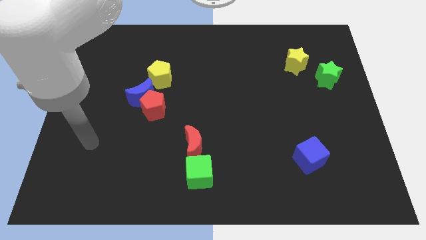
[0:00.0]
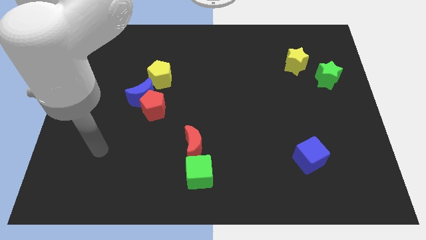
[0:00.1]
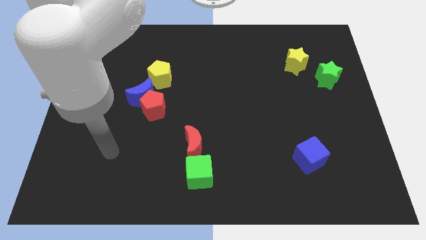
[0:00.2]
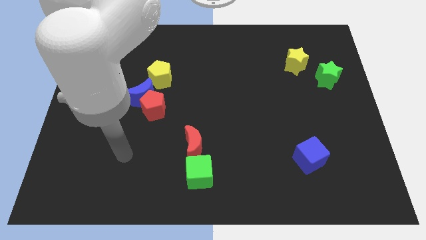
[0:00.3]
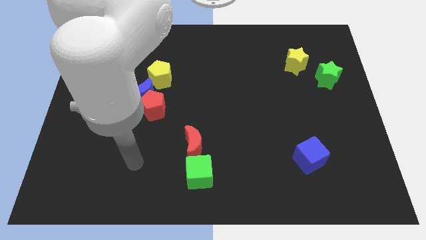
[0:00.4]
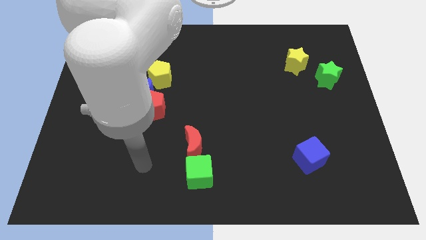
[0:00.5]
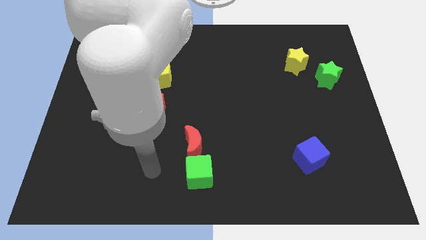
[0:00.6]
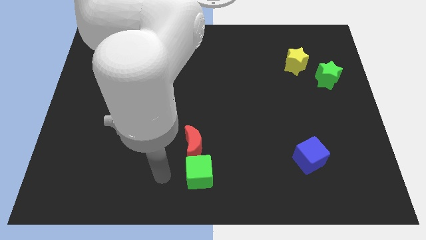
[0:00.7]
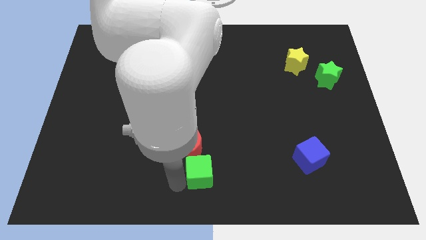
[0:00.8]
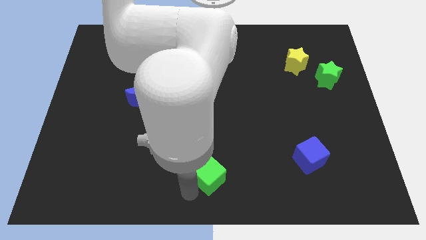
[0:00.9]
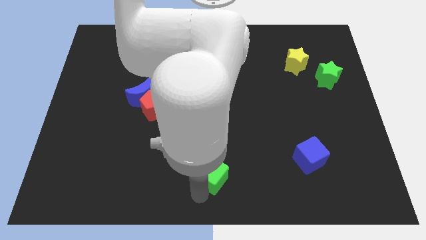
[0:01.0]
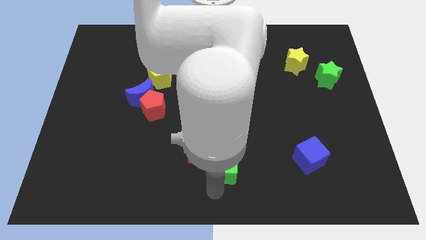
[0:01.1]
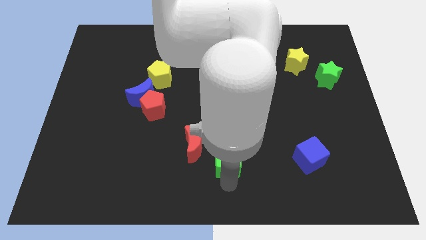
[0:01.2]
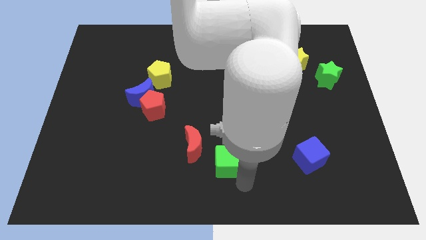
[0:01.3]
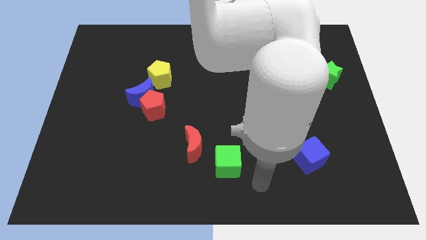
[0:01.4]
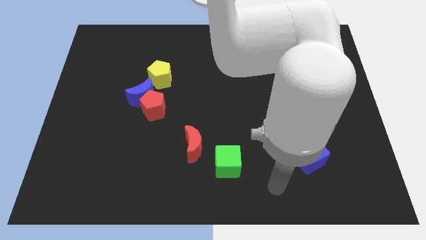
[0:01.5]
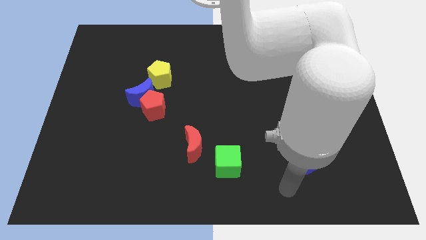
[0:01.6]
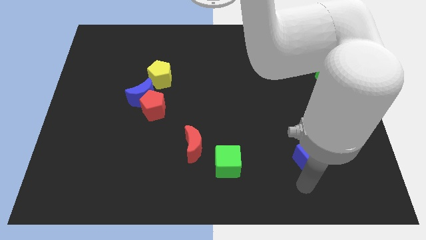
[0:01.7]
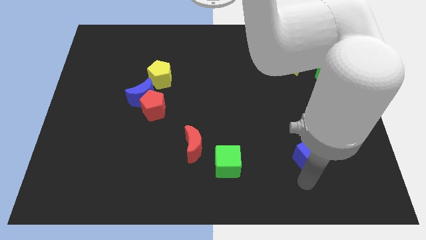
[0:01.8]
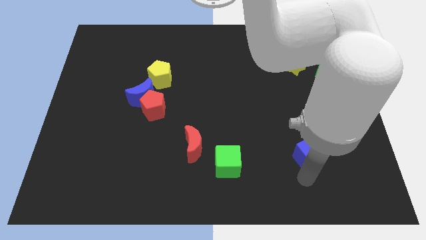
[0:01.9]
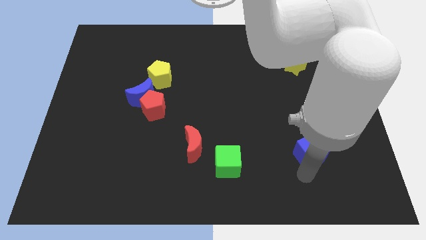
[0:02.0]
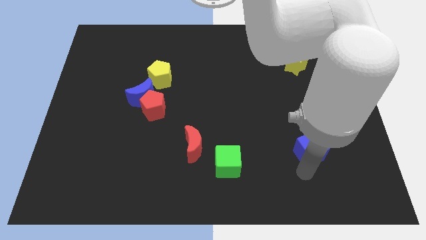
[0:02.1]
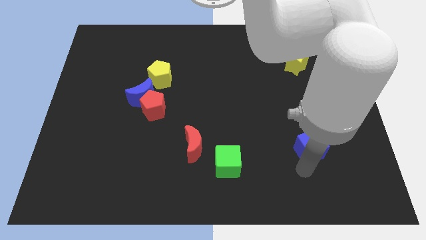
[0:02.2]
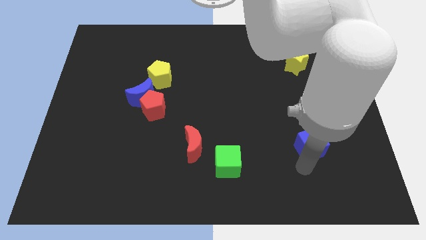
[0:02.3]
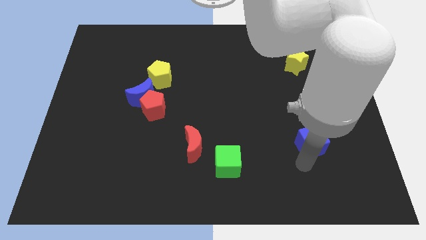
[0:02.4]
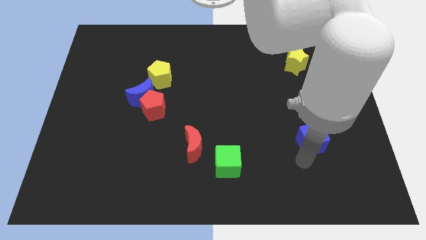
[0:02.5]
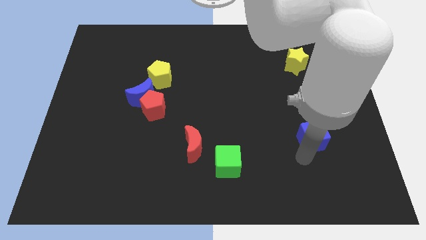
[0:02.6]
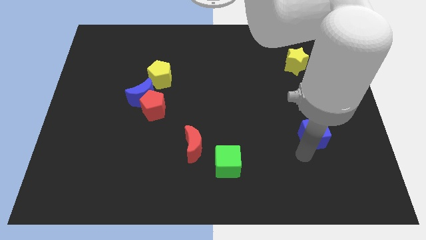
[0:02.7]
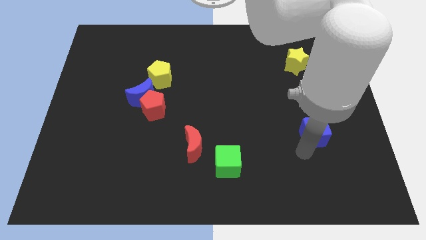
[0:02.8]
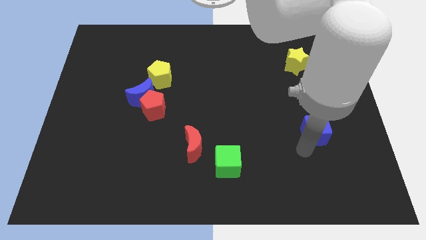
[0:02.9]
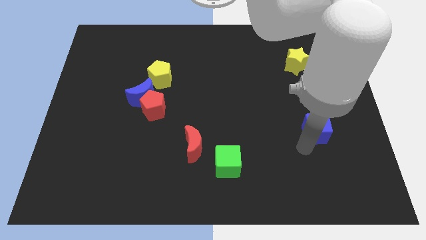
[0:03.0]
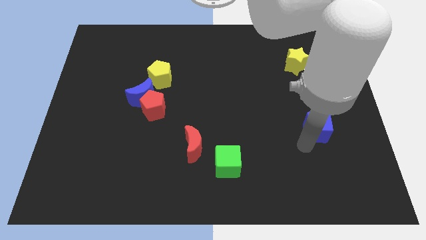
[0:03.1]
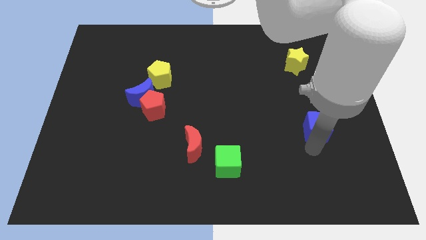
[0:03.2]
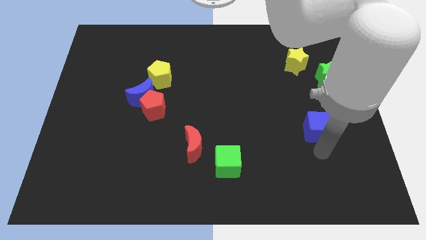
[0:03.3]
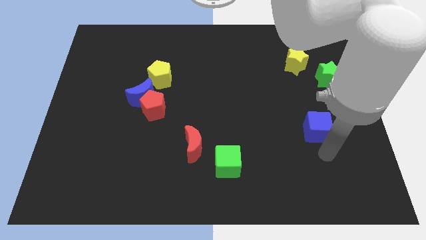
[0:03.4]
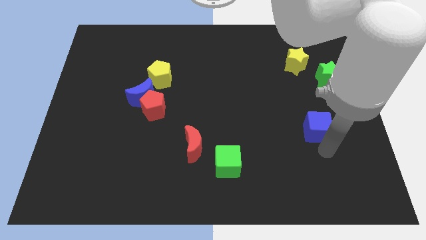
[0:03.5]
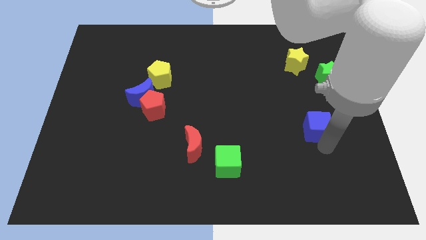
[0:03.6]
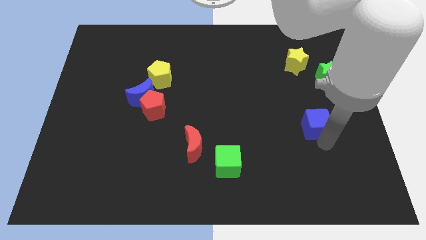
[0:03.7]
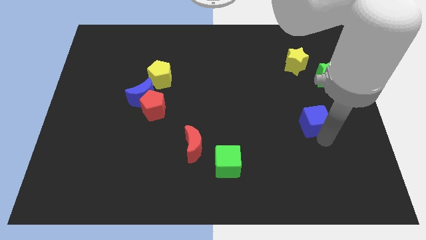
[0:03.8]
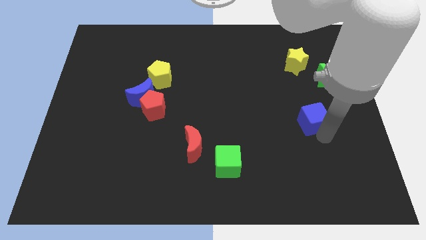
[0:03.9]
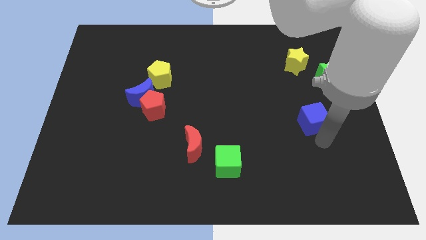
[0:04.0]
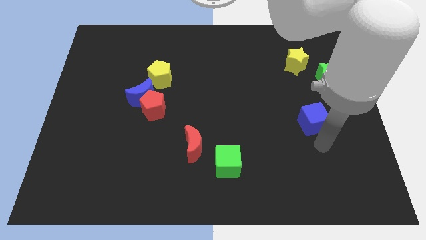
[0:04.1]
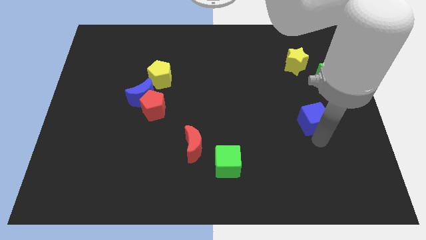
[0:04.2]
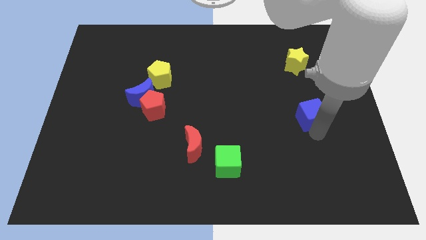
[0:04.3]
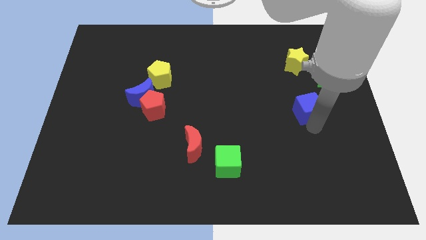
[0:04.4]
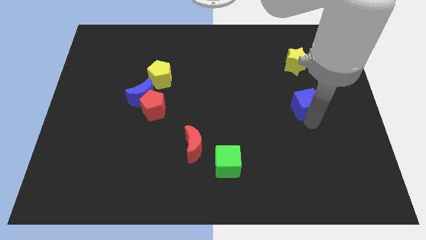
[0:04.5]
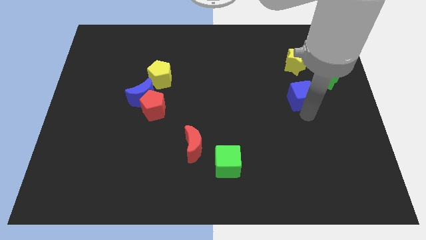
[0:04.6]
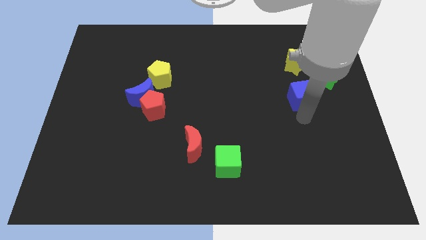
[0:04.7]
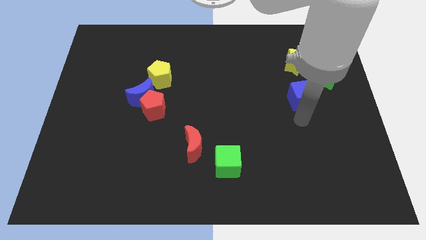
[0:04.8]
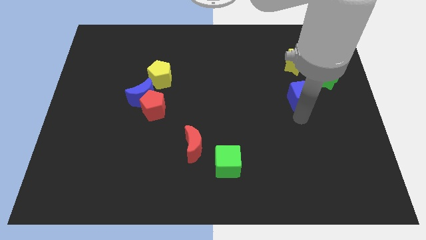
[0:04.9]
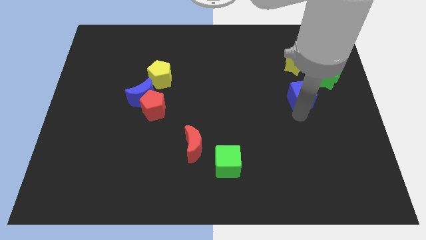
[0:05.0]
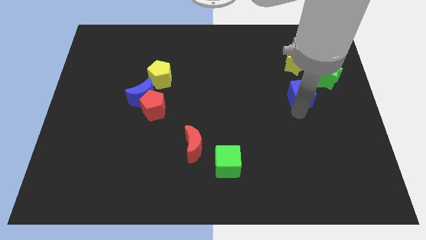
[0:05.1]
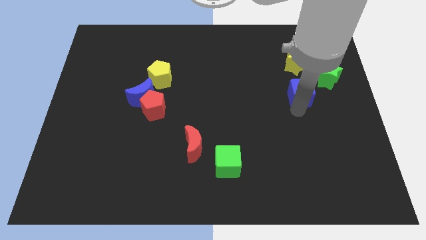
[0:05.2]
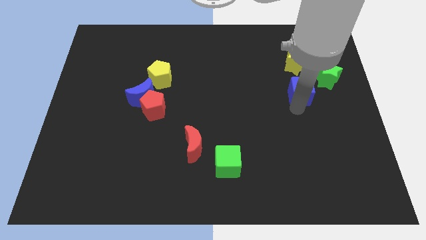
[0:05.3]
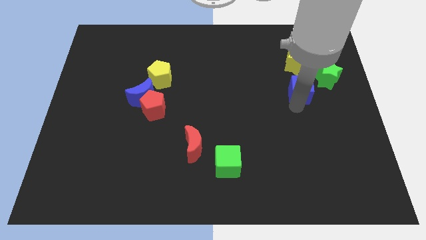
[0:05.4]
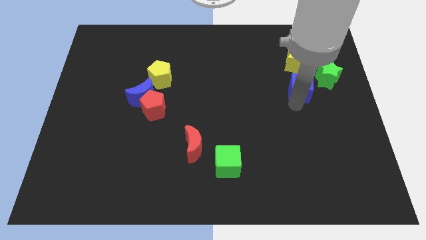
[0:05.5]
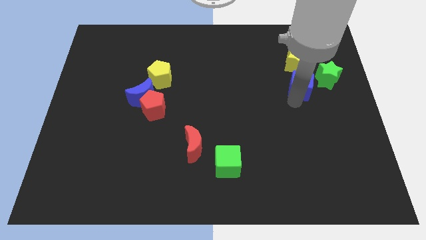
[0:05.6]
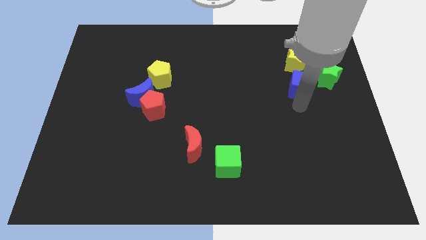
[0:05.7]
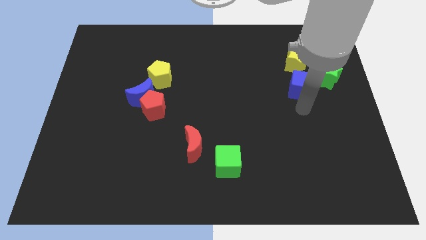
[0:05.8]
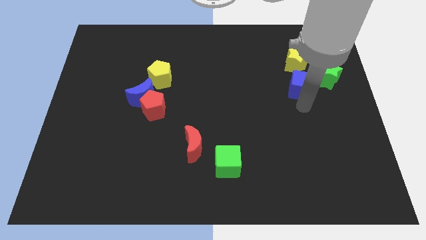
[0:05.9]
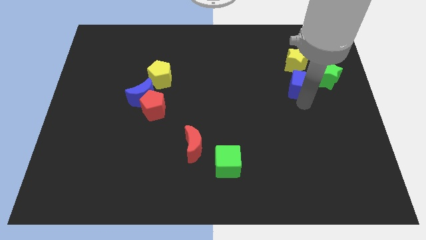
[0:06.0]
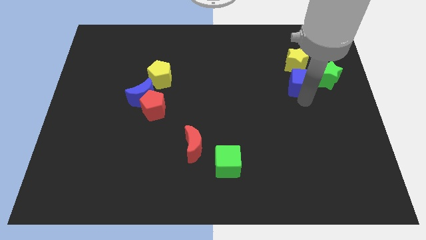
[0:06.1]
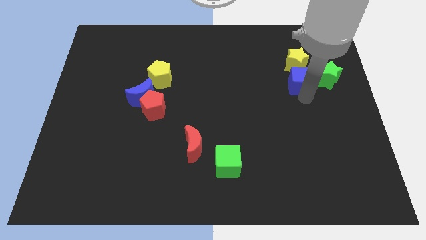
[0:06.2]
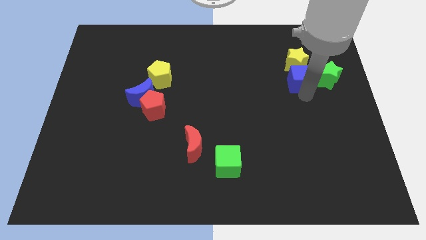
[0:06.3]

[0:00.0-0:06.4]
slide the blue cube close to the yellow star

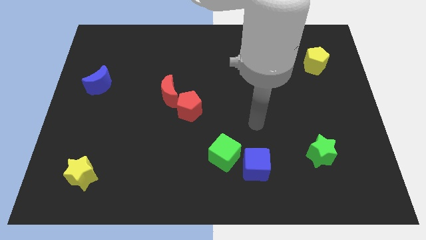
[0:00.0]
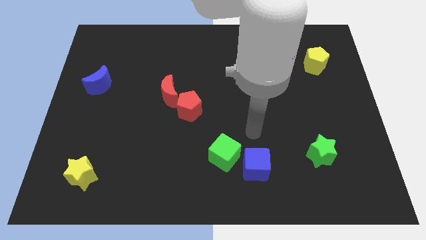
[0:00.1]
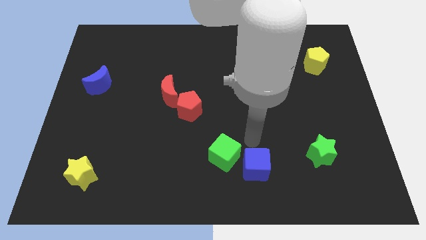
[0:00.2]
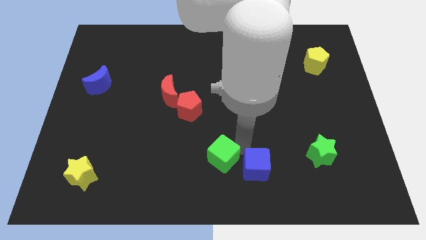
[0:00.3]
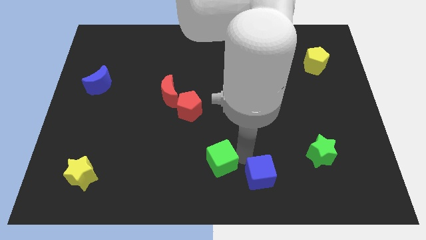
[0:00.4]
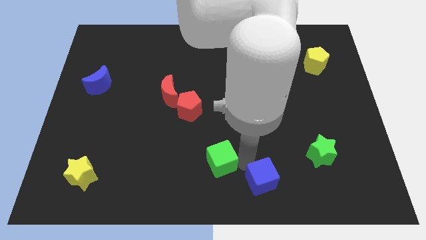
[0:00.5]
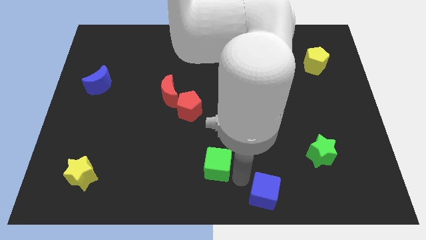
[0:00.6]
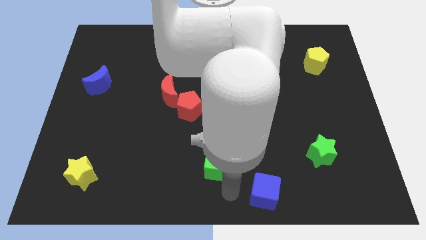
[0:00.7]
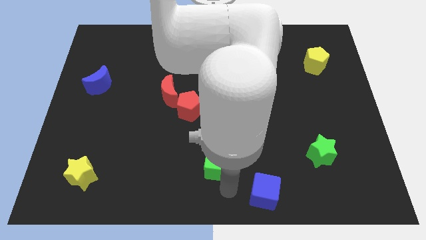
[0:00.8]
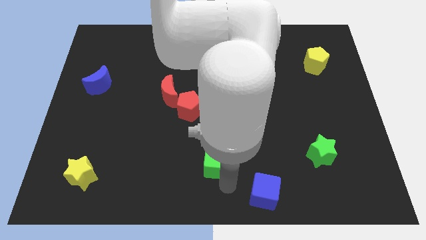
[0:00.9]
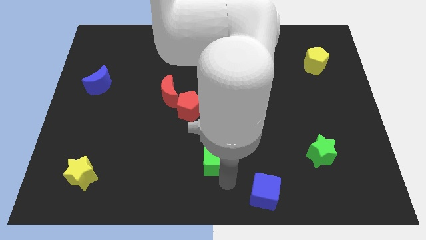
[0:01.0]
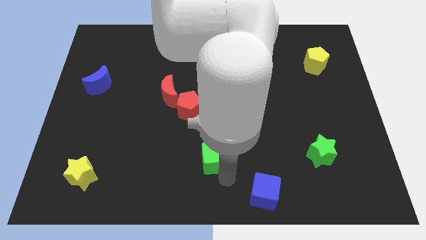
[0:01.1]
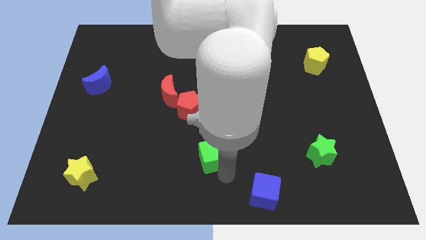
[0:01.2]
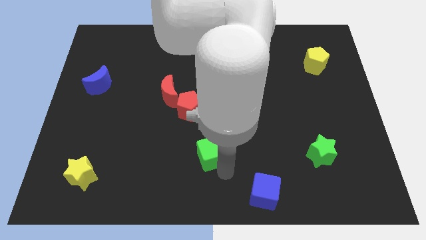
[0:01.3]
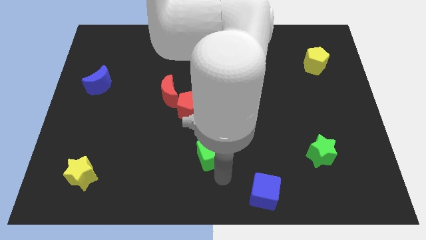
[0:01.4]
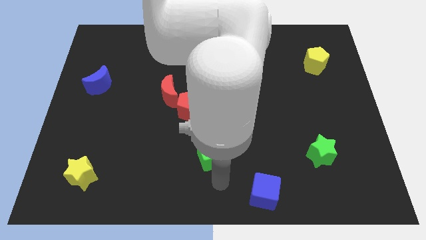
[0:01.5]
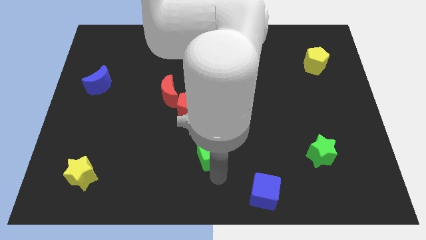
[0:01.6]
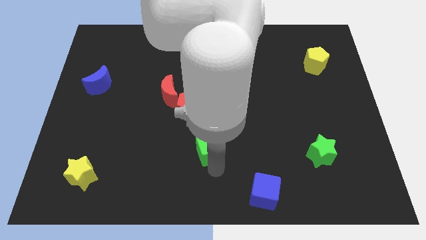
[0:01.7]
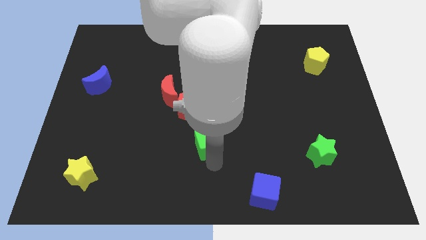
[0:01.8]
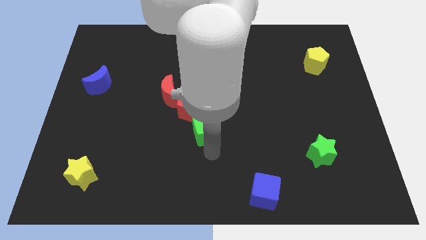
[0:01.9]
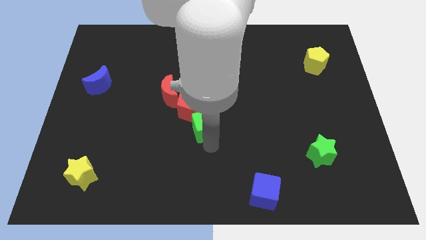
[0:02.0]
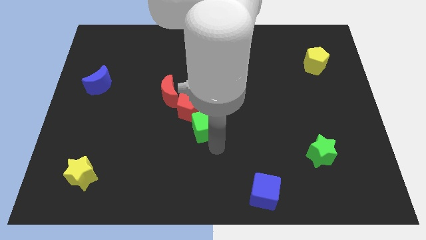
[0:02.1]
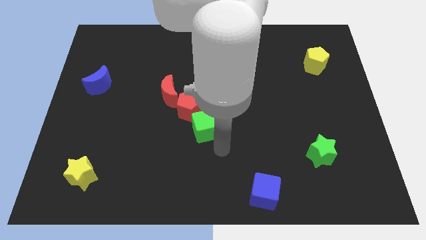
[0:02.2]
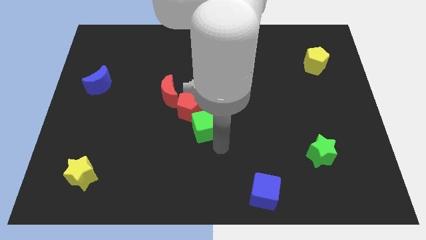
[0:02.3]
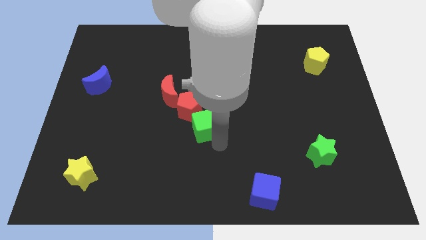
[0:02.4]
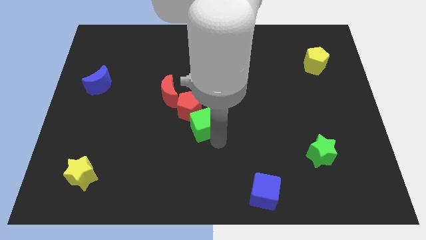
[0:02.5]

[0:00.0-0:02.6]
put the green cube next to the red pentagon
